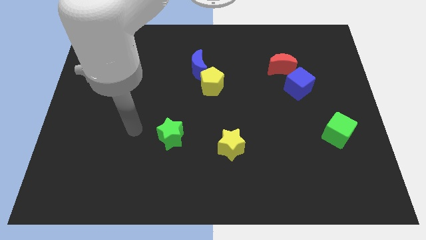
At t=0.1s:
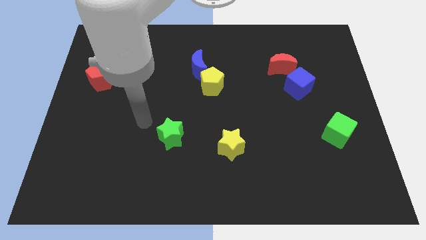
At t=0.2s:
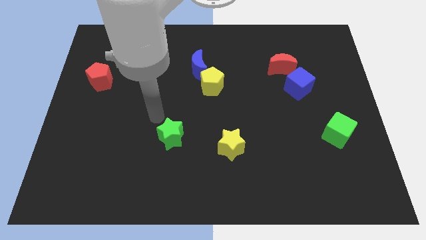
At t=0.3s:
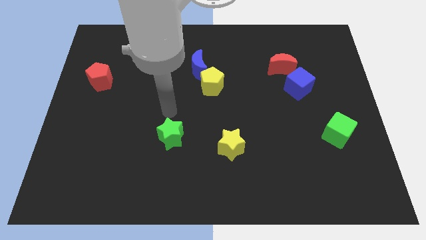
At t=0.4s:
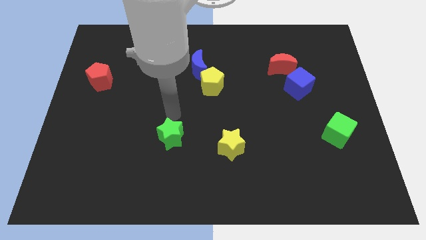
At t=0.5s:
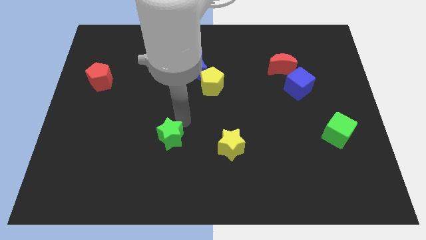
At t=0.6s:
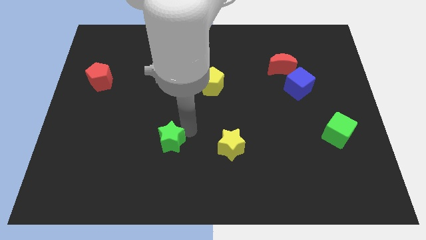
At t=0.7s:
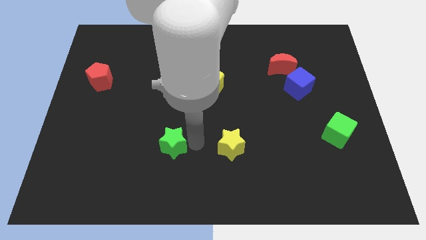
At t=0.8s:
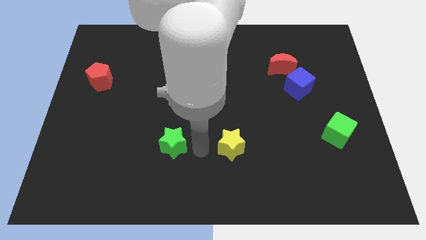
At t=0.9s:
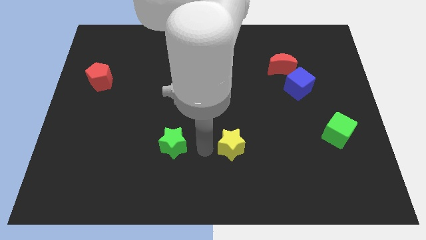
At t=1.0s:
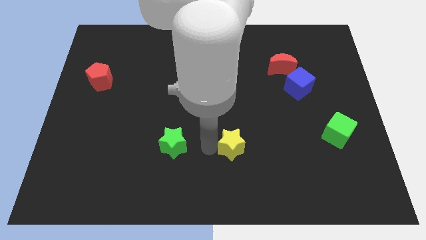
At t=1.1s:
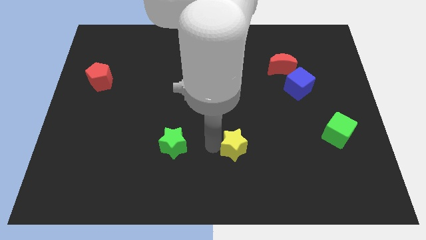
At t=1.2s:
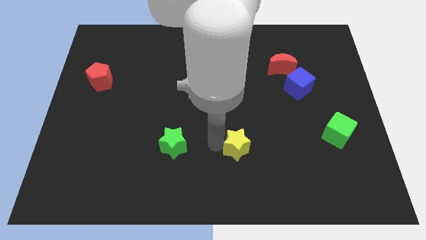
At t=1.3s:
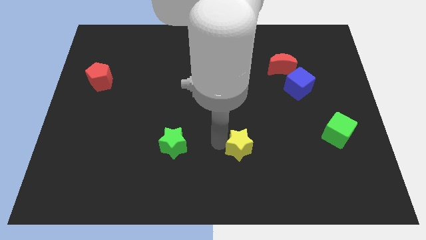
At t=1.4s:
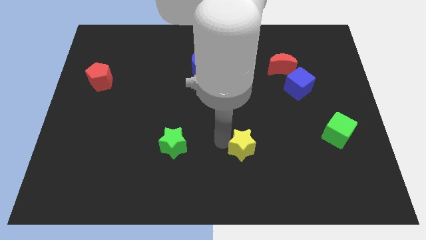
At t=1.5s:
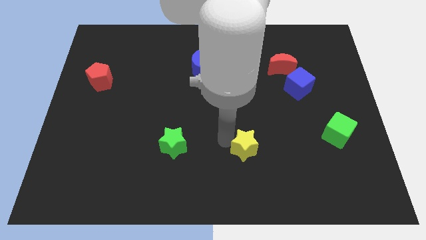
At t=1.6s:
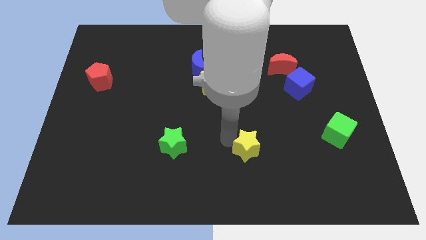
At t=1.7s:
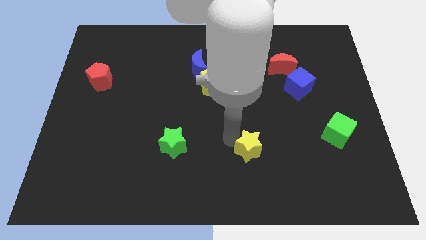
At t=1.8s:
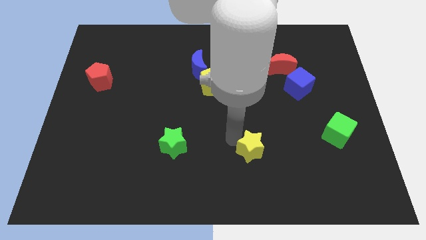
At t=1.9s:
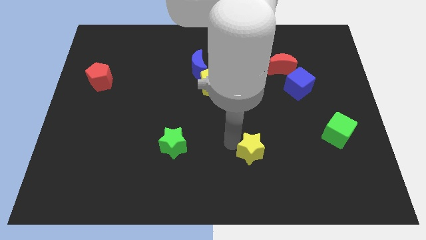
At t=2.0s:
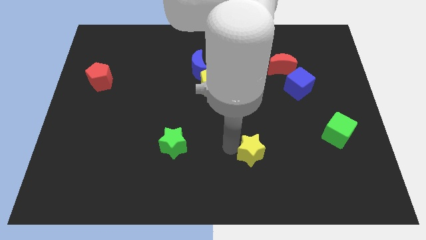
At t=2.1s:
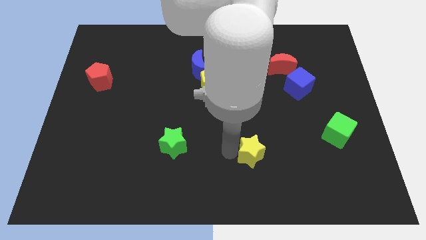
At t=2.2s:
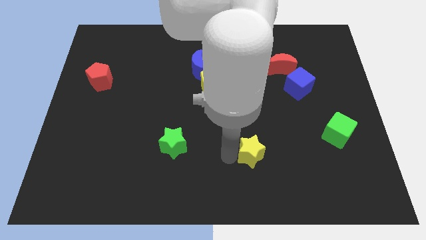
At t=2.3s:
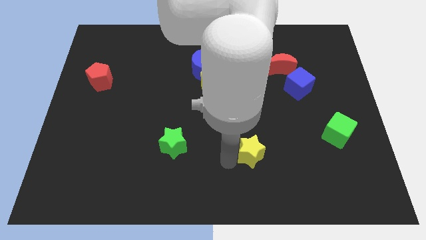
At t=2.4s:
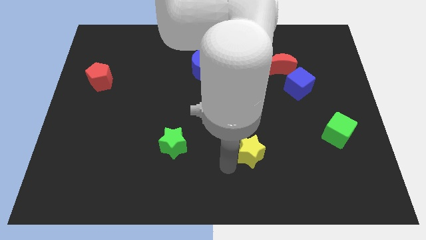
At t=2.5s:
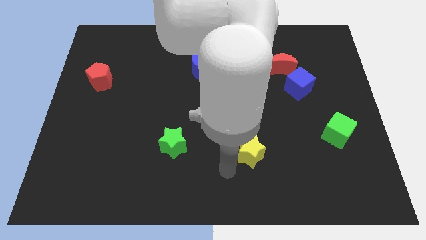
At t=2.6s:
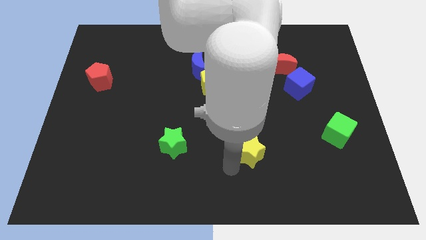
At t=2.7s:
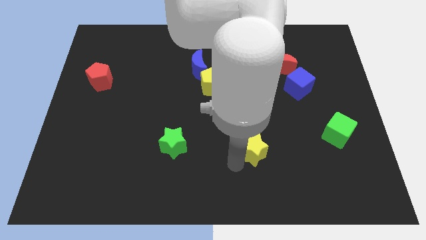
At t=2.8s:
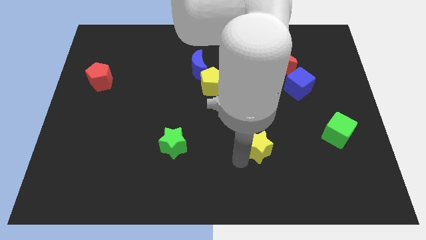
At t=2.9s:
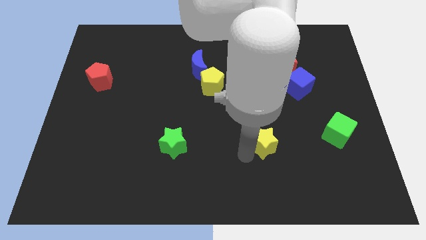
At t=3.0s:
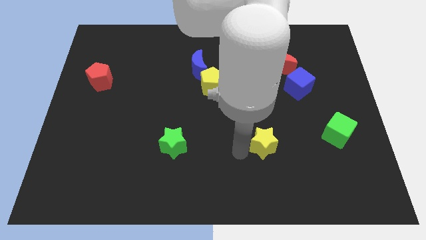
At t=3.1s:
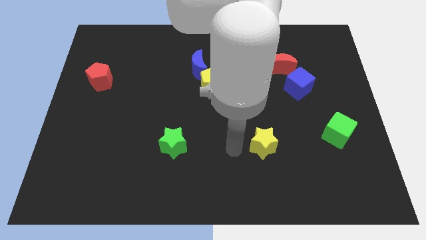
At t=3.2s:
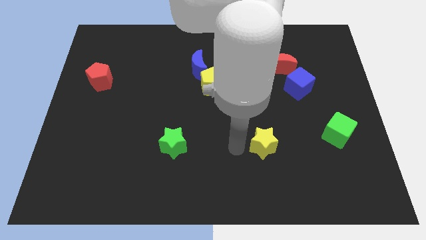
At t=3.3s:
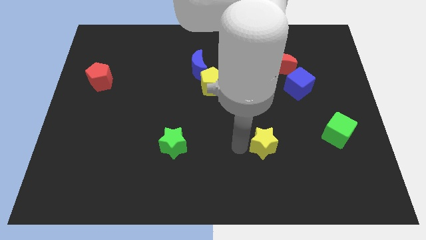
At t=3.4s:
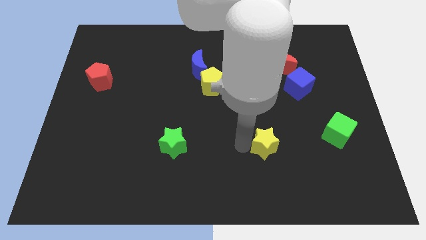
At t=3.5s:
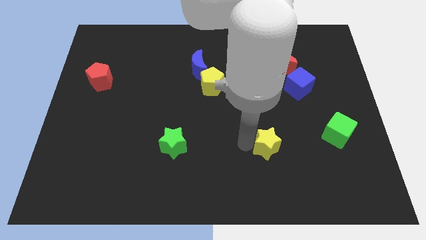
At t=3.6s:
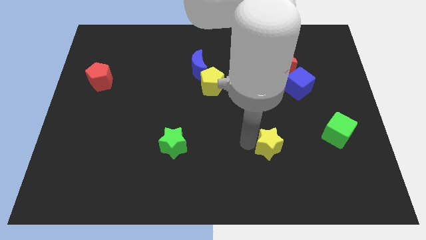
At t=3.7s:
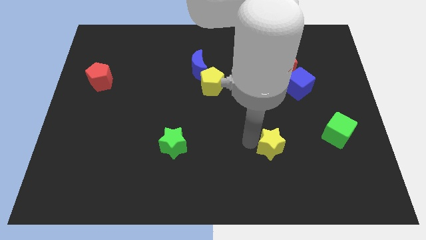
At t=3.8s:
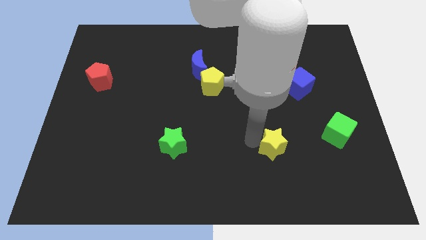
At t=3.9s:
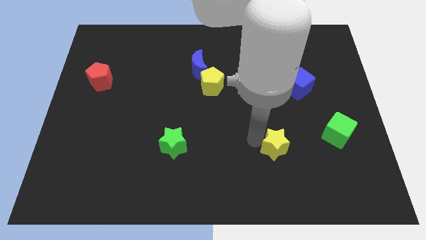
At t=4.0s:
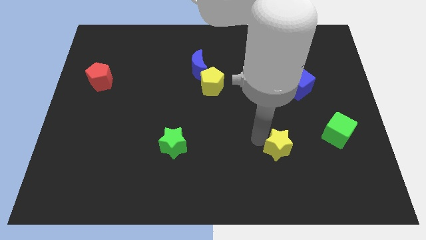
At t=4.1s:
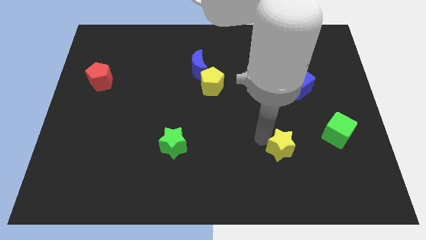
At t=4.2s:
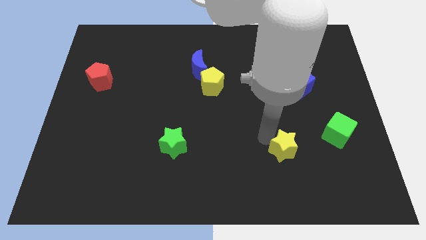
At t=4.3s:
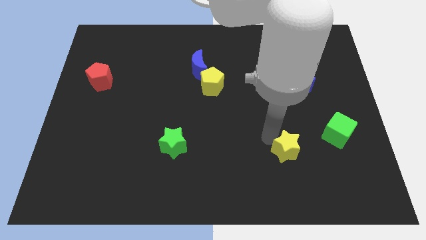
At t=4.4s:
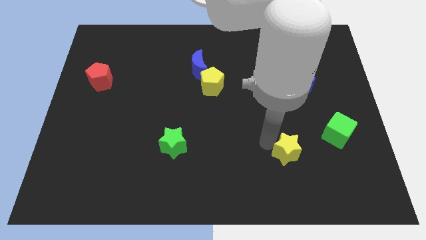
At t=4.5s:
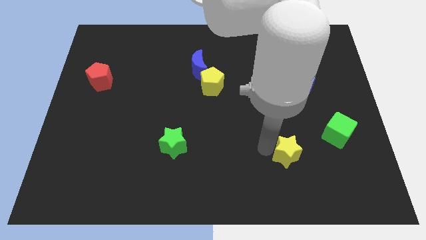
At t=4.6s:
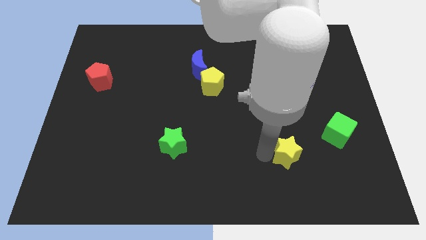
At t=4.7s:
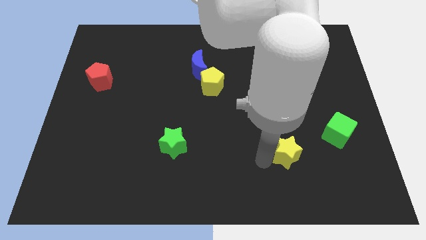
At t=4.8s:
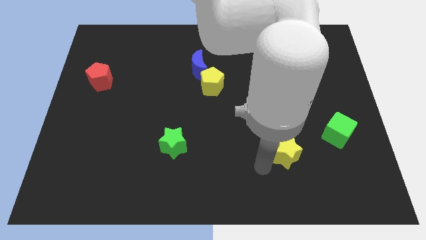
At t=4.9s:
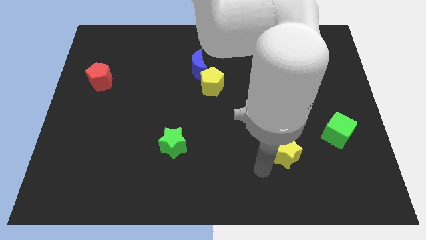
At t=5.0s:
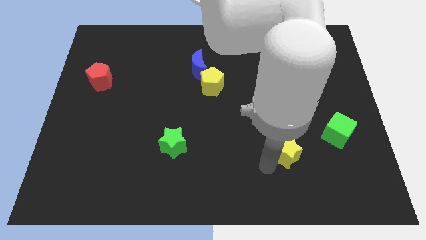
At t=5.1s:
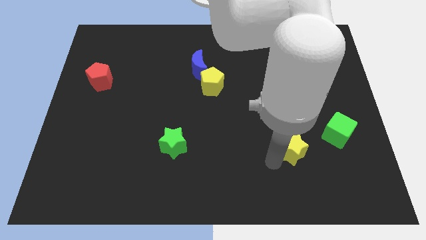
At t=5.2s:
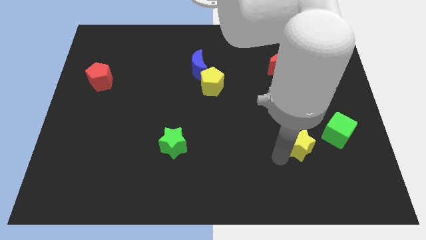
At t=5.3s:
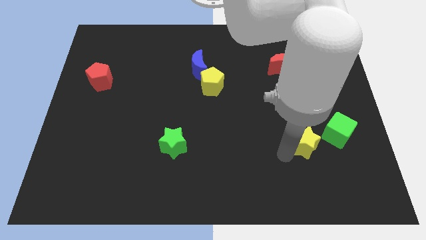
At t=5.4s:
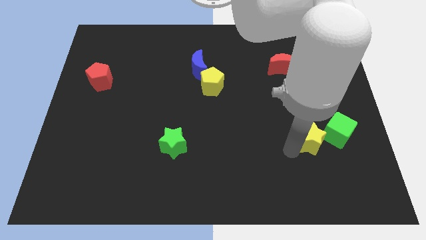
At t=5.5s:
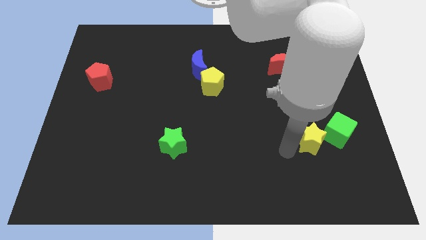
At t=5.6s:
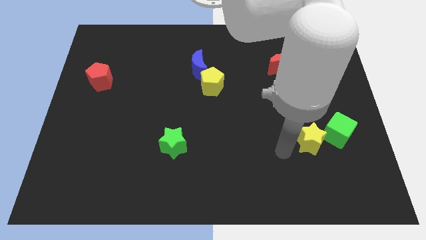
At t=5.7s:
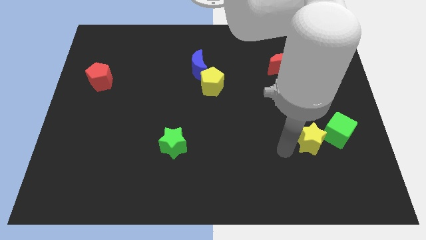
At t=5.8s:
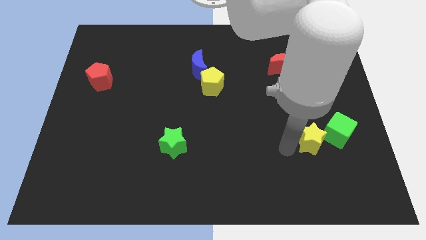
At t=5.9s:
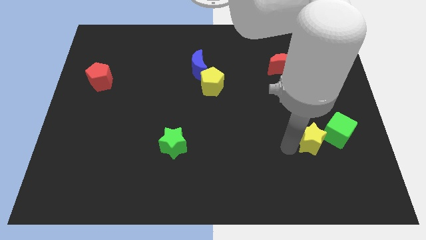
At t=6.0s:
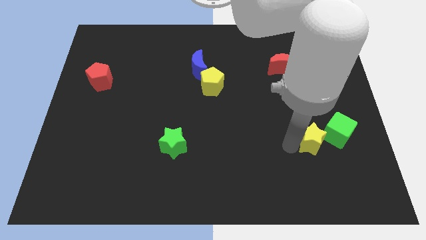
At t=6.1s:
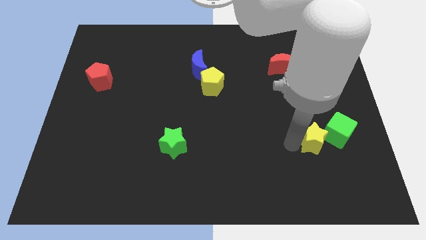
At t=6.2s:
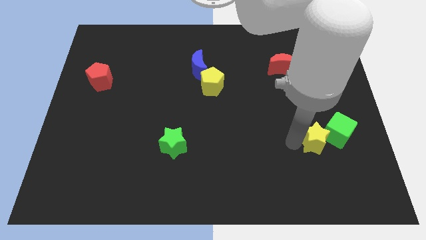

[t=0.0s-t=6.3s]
move the yellow star next to the green cube

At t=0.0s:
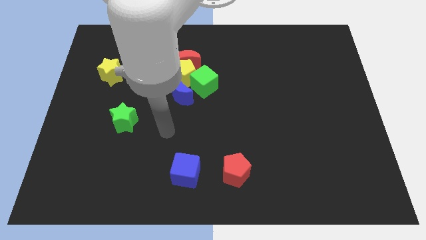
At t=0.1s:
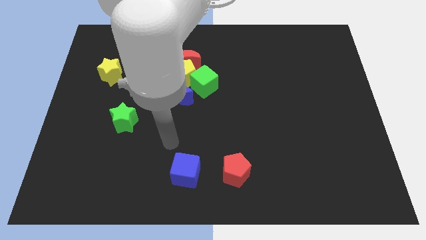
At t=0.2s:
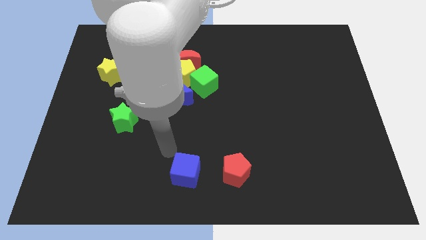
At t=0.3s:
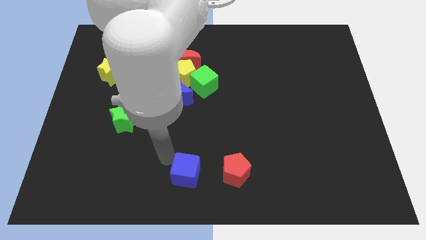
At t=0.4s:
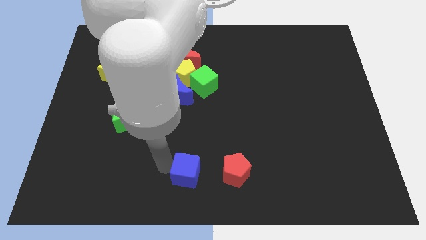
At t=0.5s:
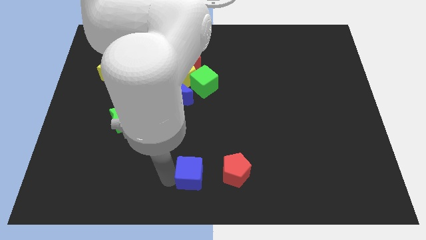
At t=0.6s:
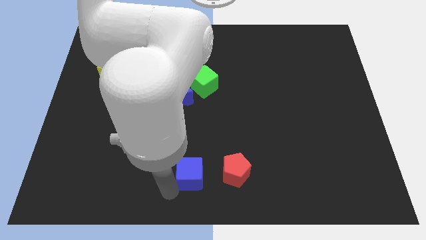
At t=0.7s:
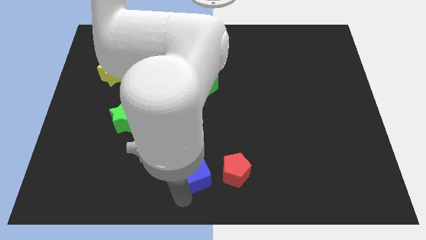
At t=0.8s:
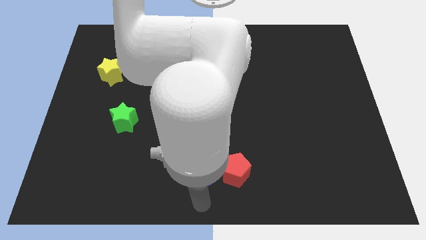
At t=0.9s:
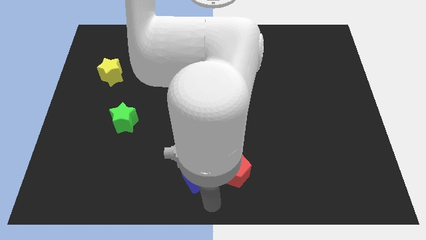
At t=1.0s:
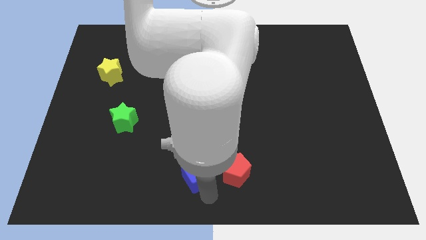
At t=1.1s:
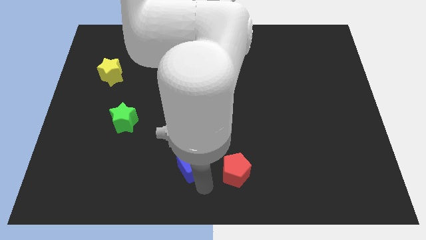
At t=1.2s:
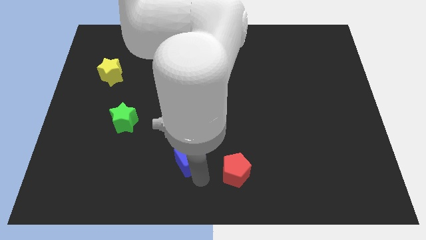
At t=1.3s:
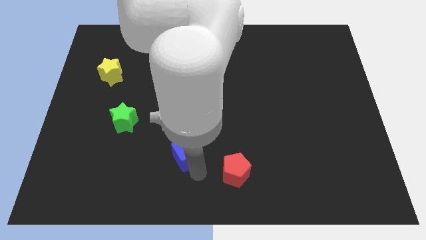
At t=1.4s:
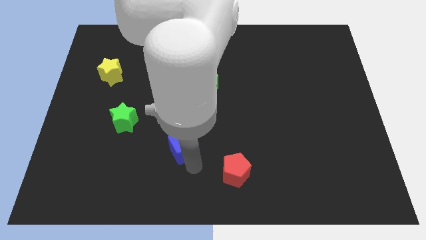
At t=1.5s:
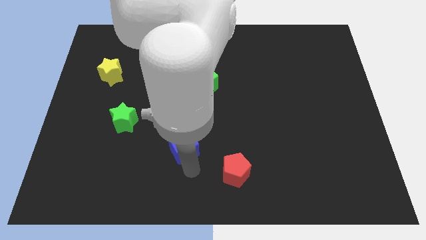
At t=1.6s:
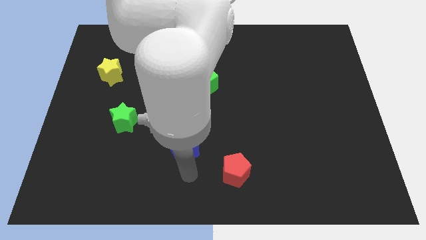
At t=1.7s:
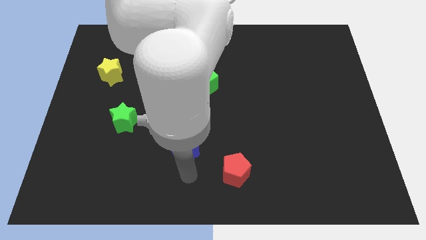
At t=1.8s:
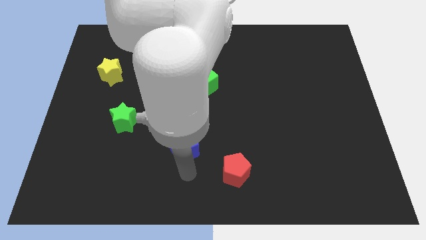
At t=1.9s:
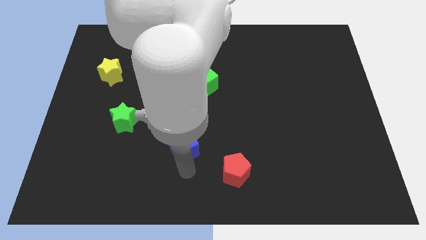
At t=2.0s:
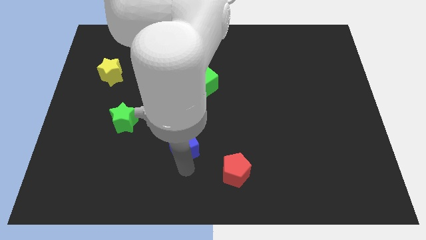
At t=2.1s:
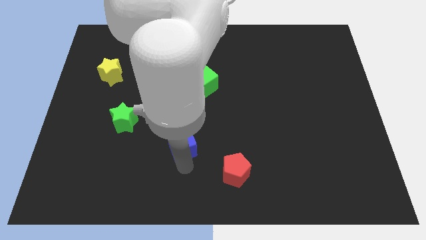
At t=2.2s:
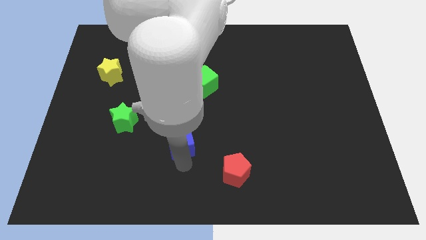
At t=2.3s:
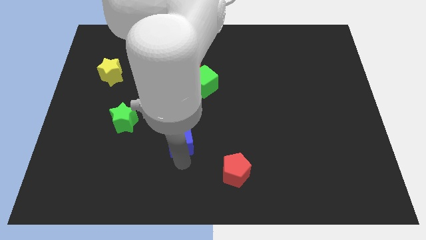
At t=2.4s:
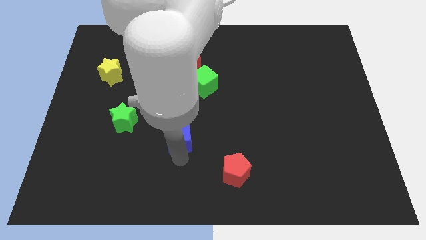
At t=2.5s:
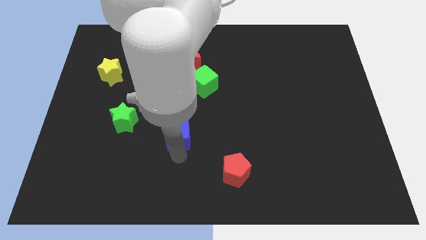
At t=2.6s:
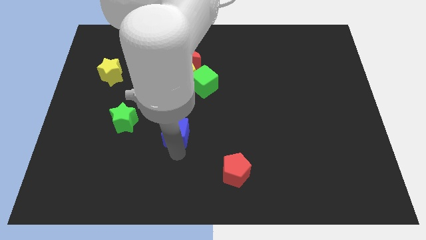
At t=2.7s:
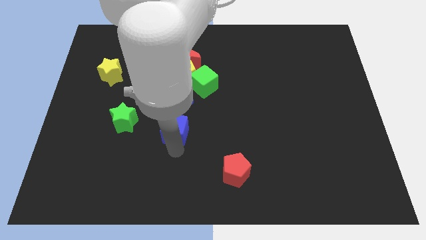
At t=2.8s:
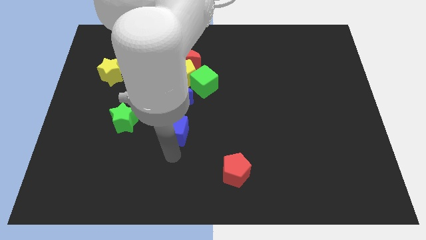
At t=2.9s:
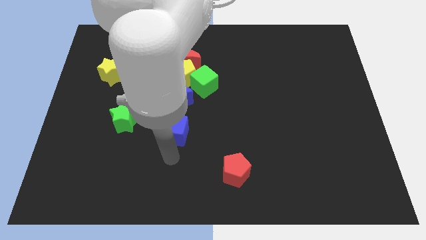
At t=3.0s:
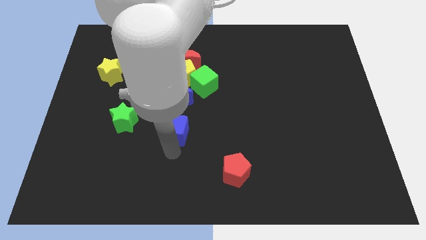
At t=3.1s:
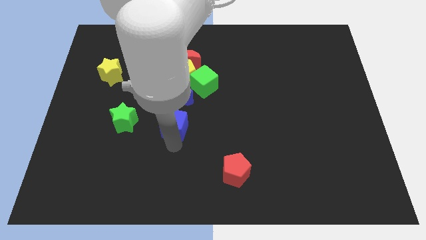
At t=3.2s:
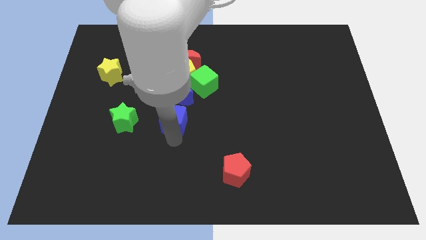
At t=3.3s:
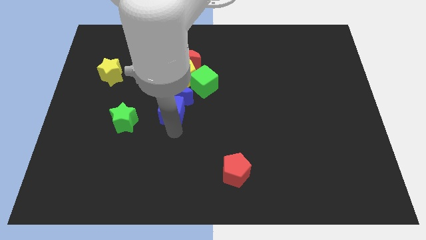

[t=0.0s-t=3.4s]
slide the blue cube towards the blue moon
